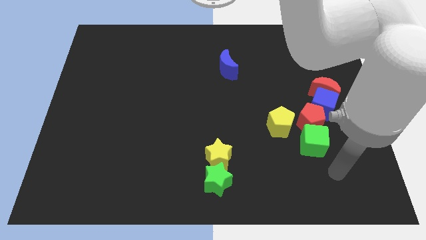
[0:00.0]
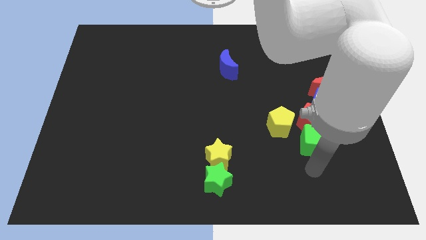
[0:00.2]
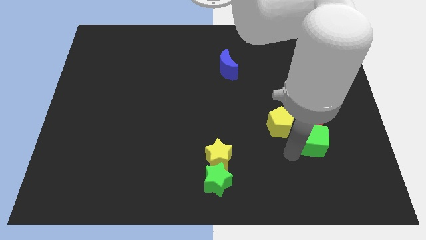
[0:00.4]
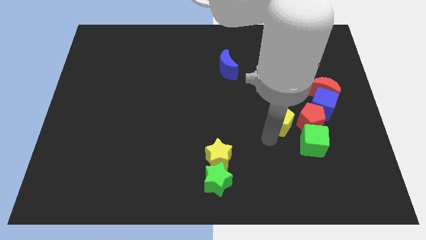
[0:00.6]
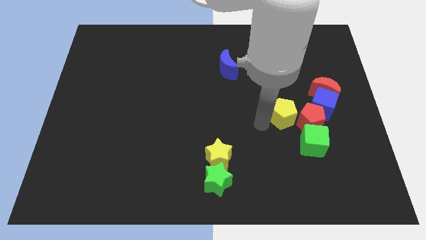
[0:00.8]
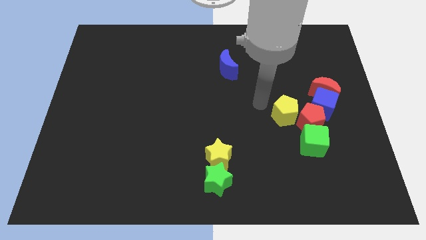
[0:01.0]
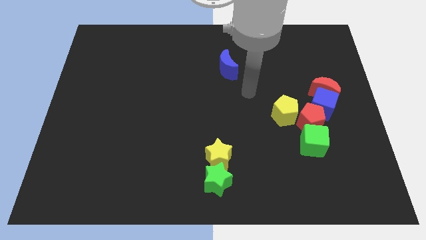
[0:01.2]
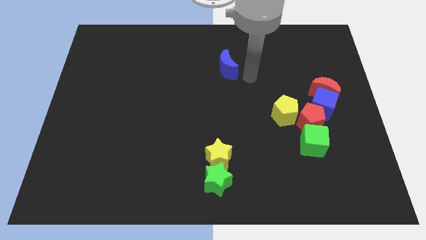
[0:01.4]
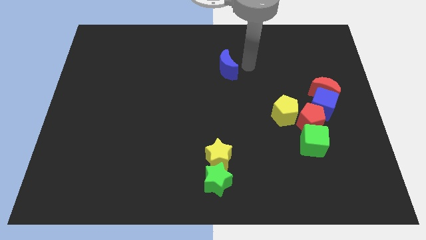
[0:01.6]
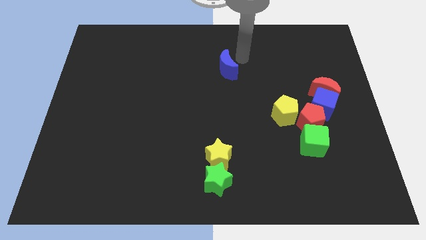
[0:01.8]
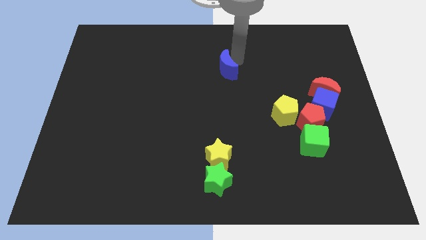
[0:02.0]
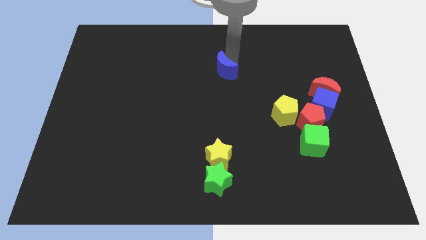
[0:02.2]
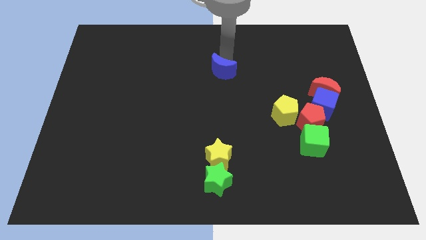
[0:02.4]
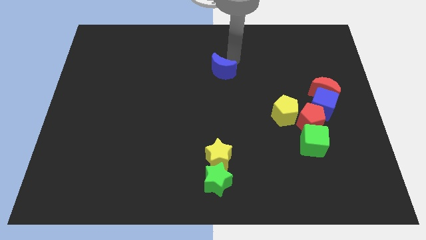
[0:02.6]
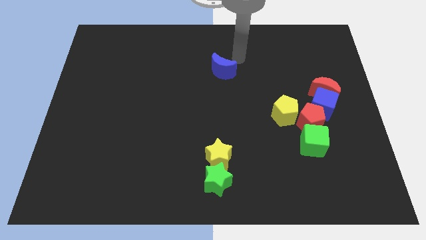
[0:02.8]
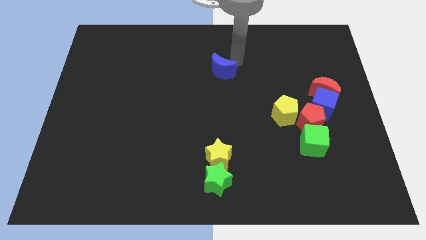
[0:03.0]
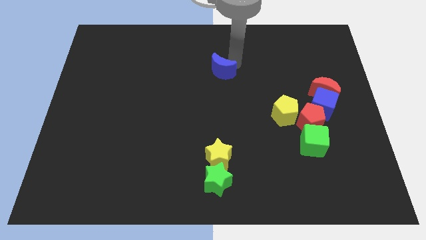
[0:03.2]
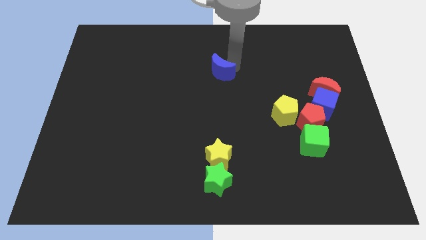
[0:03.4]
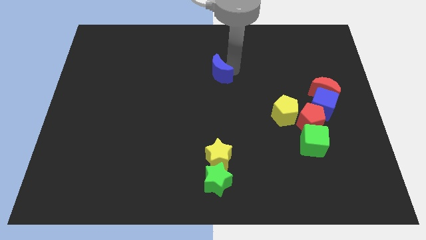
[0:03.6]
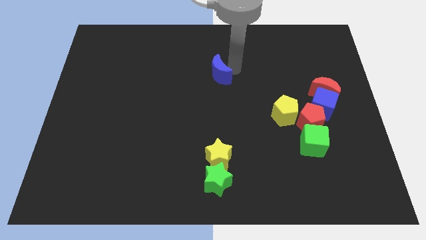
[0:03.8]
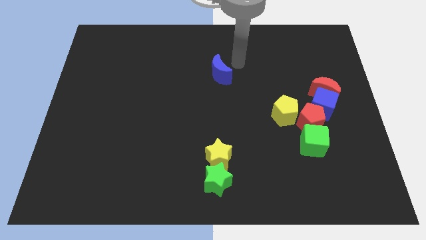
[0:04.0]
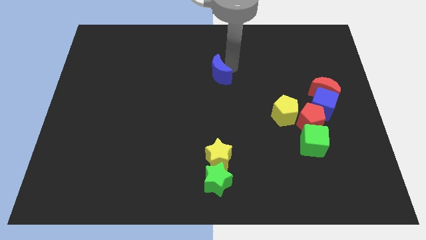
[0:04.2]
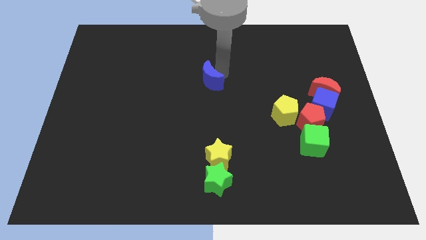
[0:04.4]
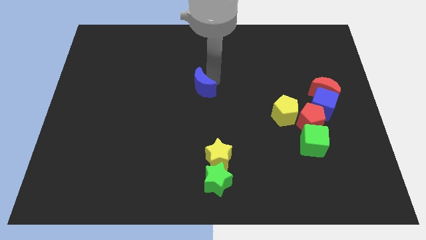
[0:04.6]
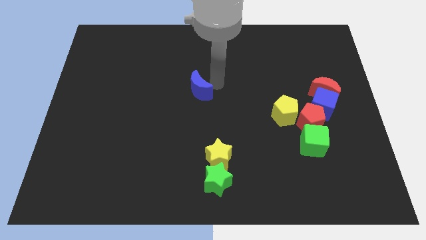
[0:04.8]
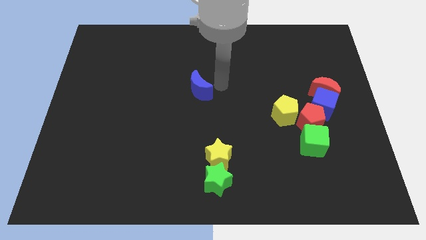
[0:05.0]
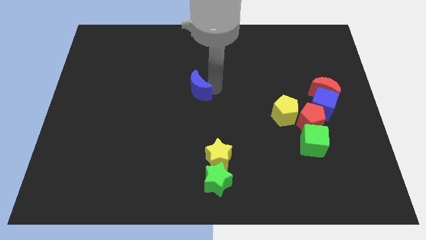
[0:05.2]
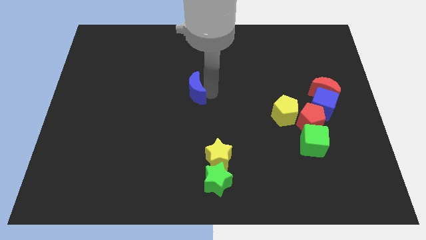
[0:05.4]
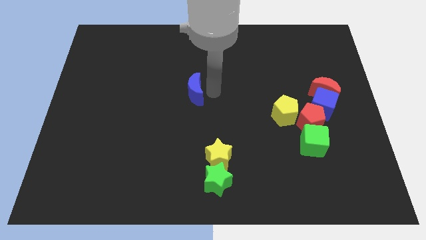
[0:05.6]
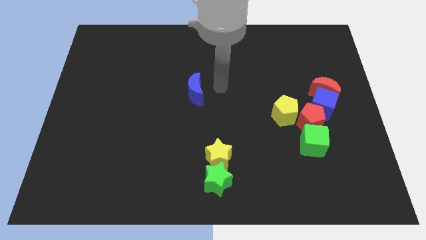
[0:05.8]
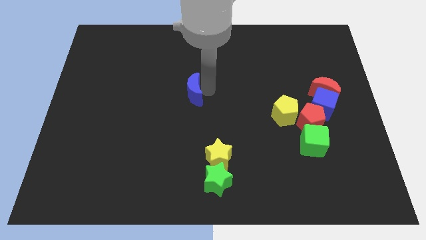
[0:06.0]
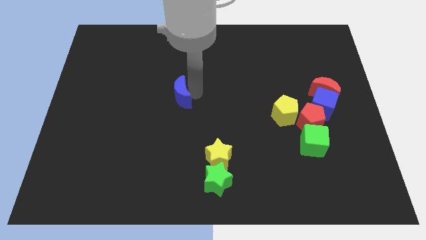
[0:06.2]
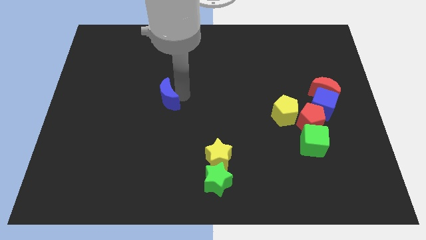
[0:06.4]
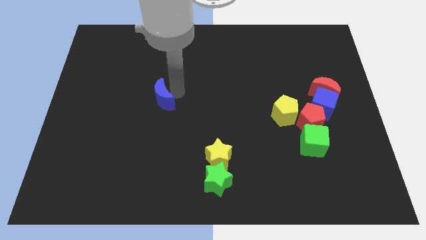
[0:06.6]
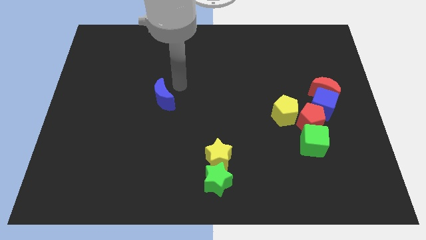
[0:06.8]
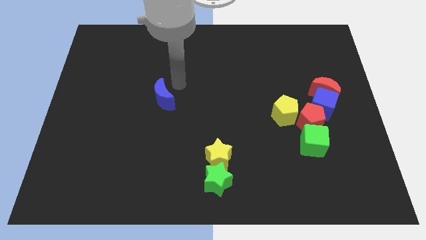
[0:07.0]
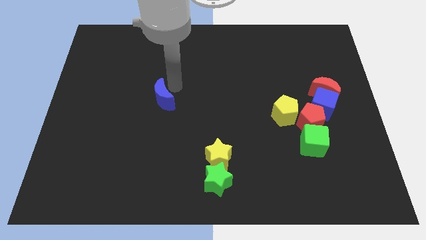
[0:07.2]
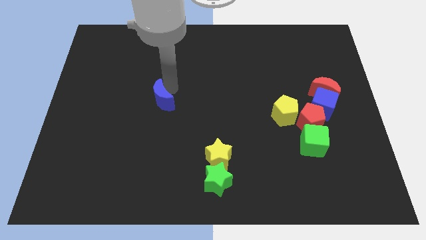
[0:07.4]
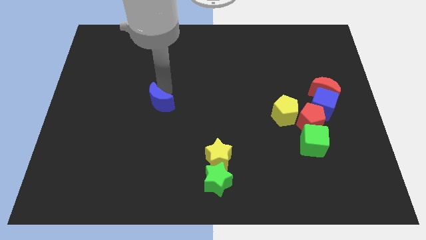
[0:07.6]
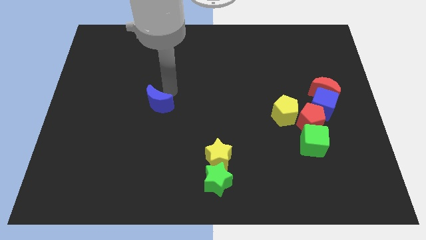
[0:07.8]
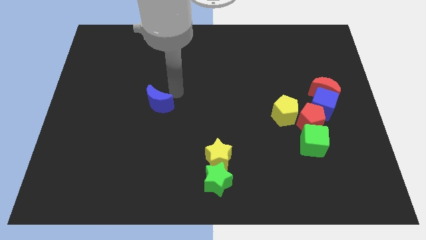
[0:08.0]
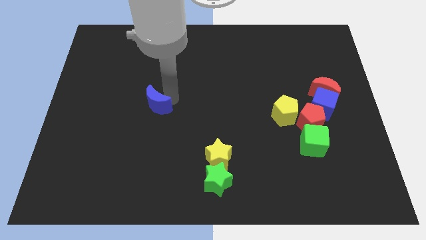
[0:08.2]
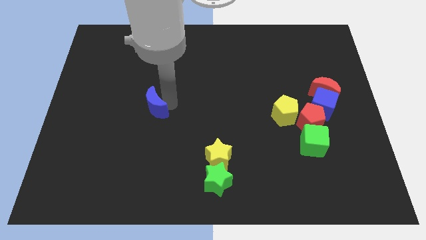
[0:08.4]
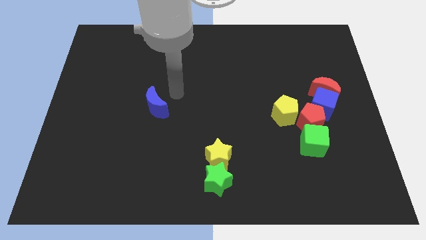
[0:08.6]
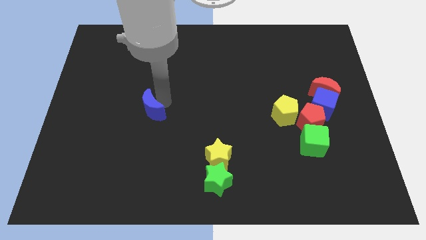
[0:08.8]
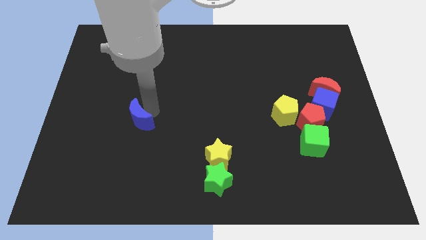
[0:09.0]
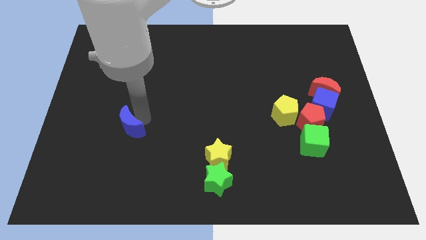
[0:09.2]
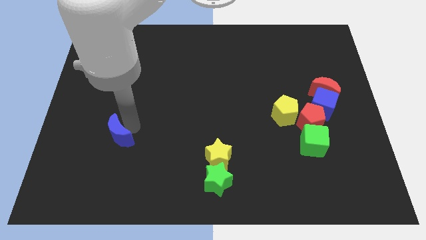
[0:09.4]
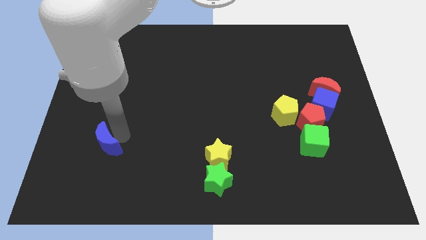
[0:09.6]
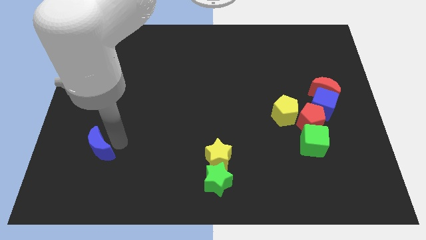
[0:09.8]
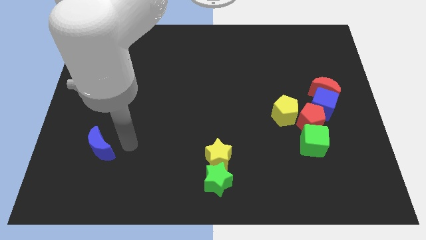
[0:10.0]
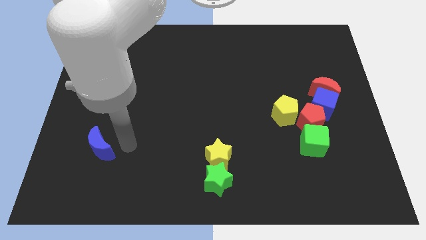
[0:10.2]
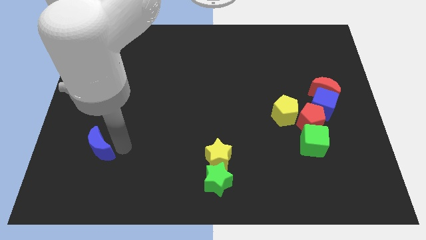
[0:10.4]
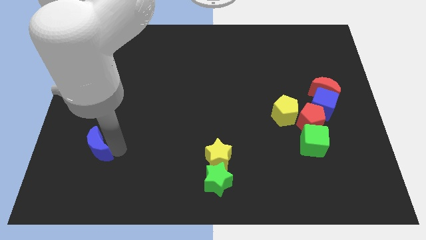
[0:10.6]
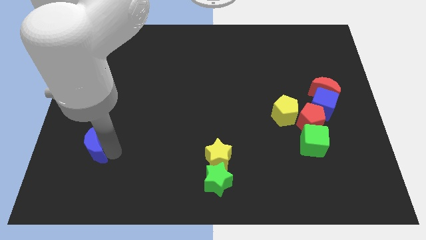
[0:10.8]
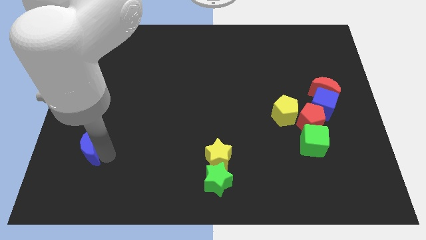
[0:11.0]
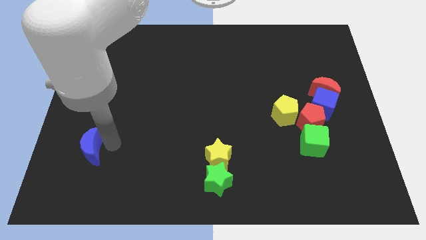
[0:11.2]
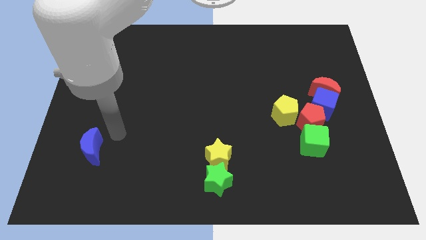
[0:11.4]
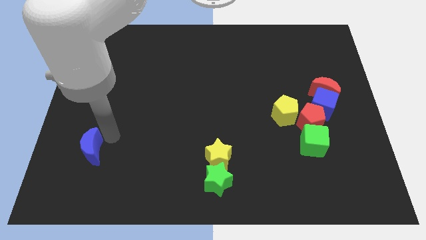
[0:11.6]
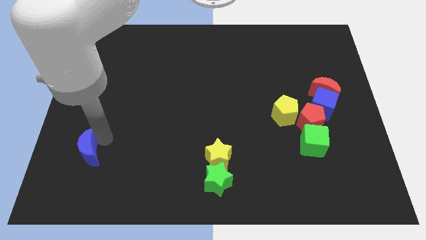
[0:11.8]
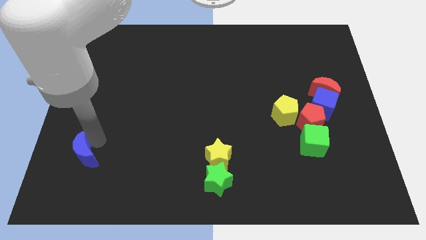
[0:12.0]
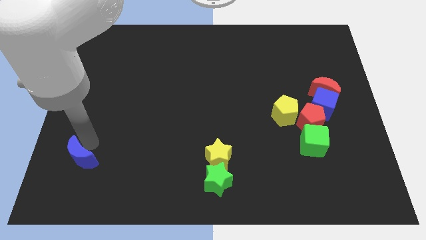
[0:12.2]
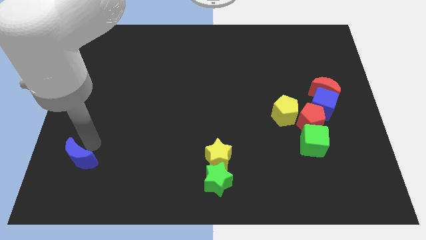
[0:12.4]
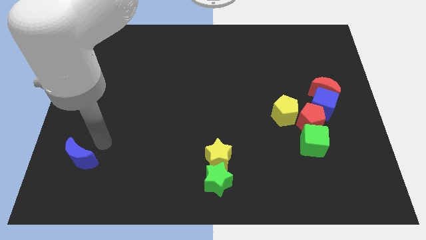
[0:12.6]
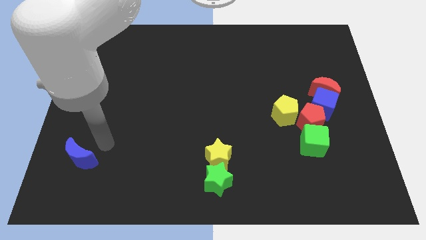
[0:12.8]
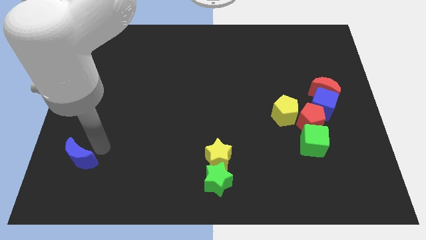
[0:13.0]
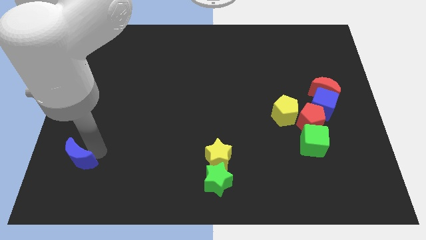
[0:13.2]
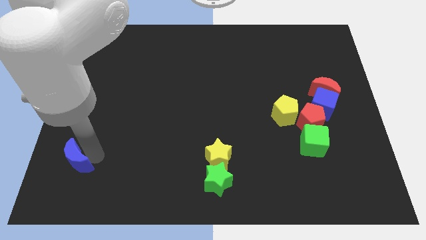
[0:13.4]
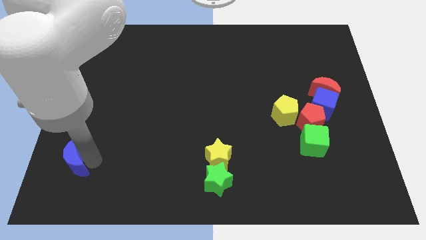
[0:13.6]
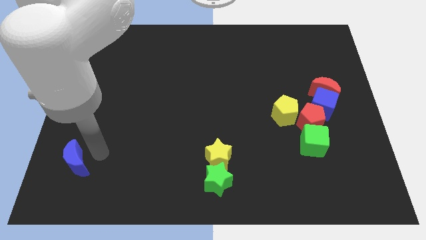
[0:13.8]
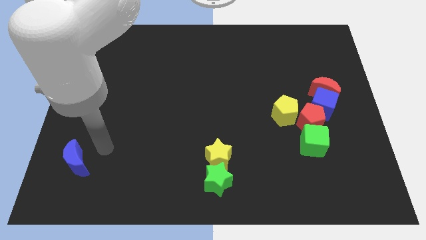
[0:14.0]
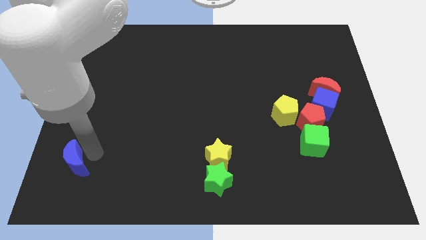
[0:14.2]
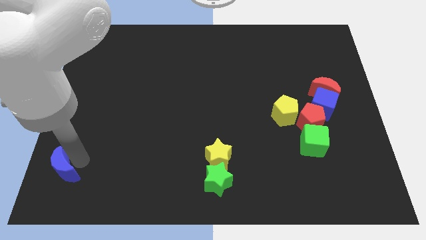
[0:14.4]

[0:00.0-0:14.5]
push the blue moon to the lower left corner
